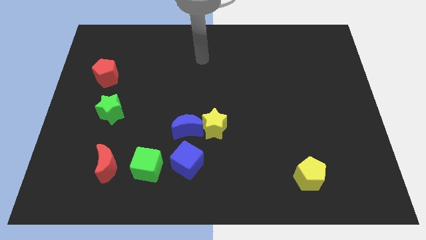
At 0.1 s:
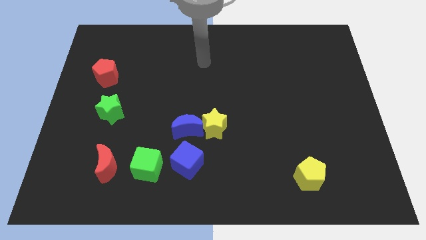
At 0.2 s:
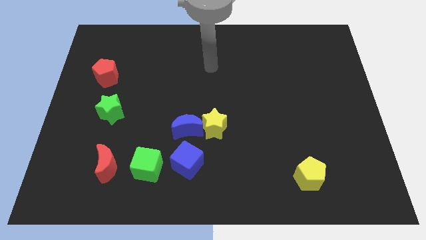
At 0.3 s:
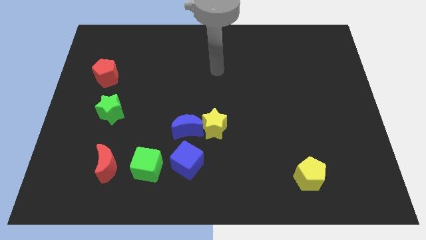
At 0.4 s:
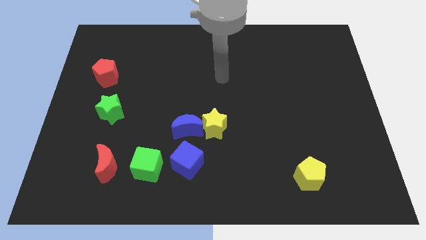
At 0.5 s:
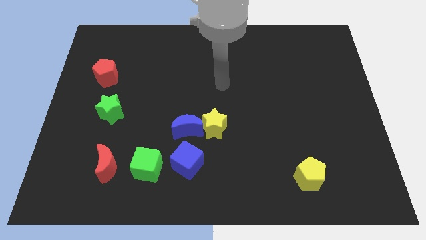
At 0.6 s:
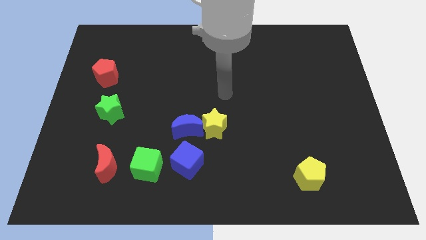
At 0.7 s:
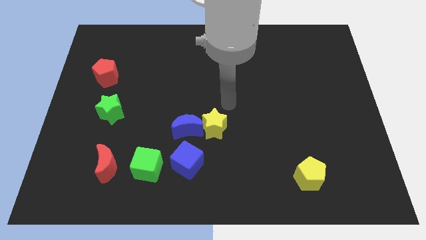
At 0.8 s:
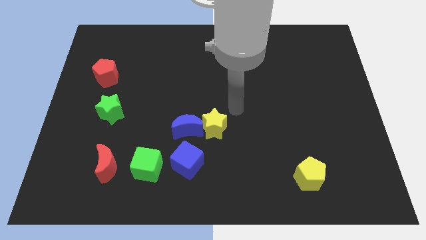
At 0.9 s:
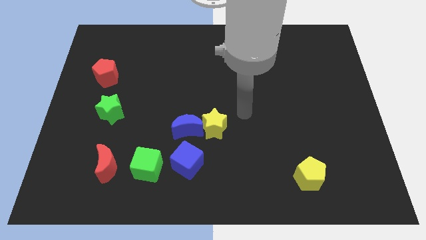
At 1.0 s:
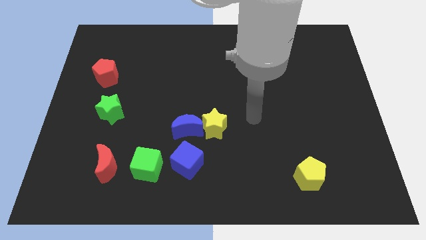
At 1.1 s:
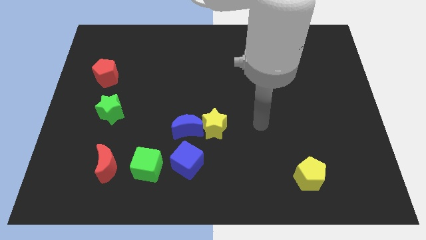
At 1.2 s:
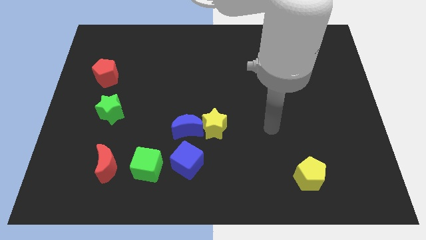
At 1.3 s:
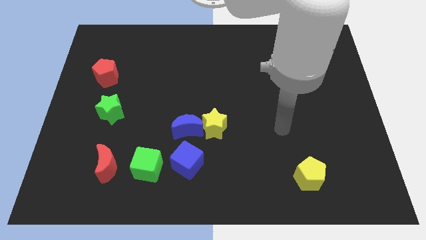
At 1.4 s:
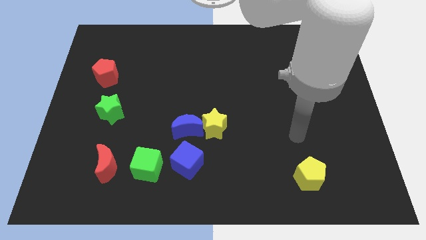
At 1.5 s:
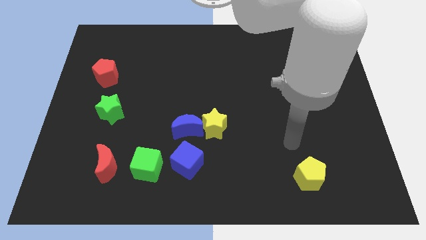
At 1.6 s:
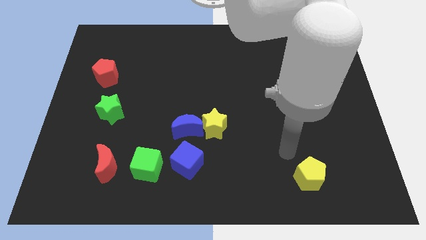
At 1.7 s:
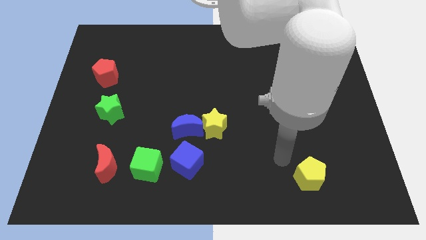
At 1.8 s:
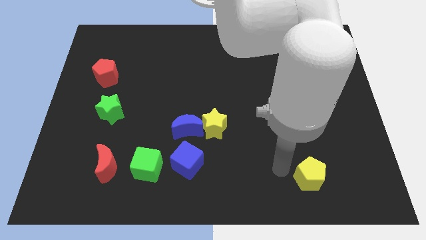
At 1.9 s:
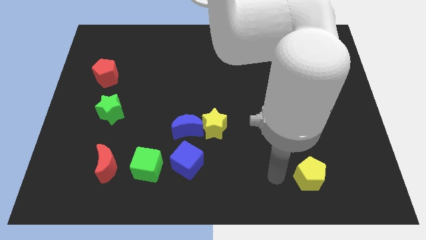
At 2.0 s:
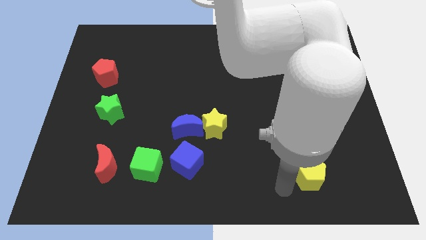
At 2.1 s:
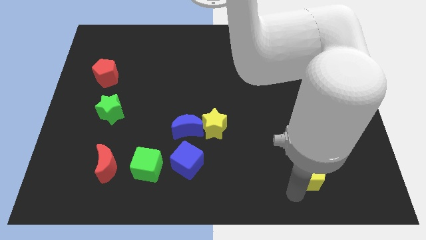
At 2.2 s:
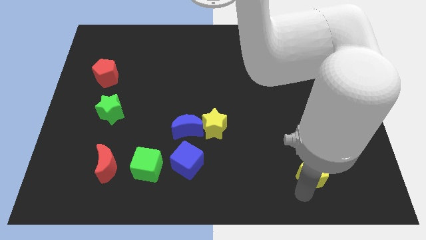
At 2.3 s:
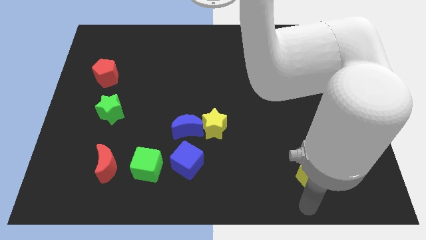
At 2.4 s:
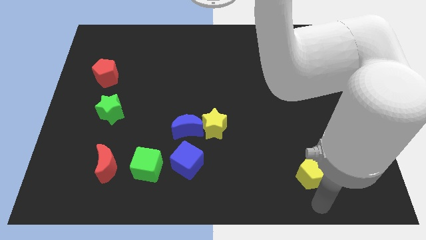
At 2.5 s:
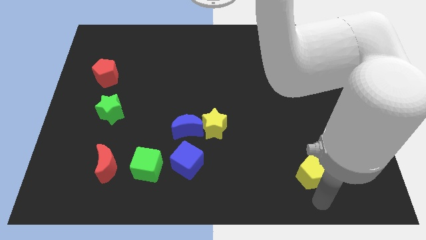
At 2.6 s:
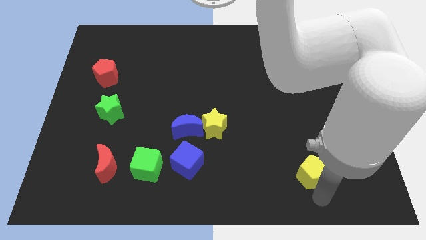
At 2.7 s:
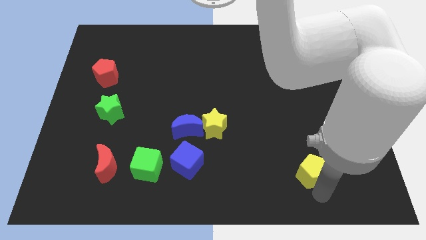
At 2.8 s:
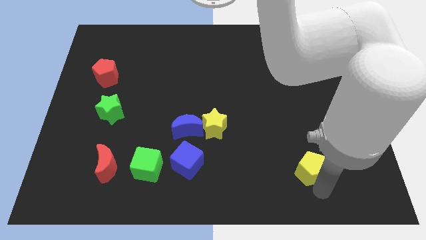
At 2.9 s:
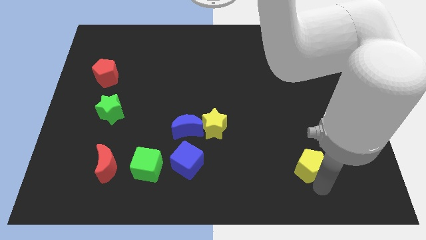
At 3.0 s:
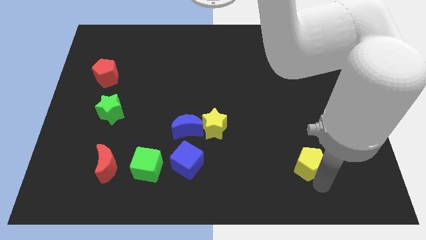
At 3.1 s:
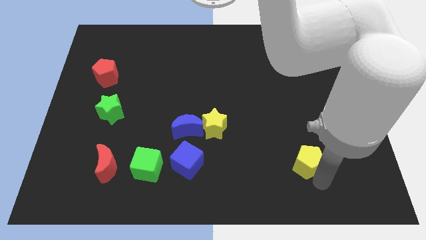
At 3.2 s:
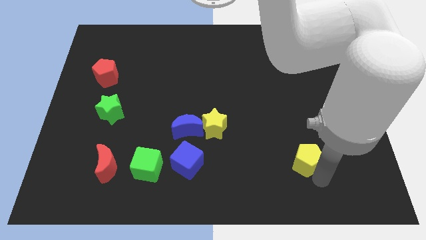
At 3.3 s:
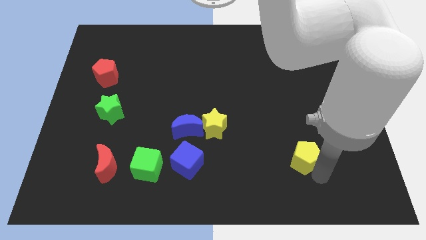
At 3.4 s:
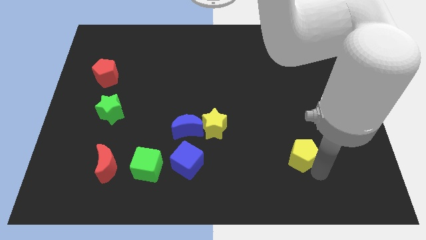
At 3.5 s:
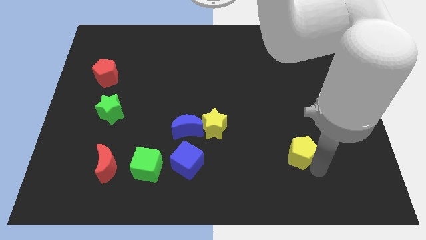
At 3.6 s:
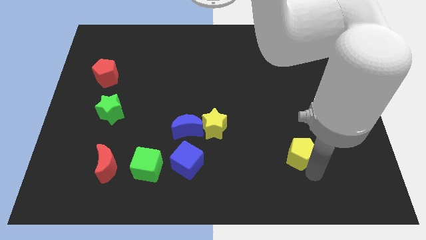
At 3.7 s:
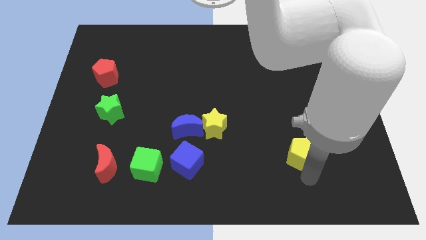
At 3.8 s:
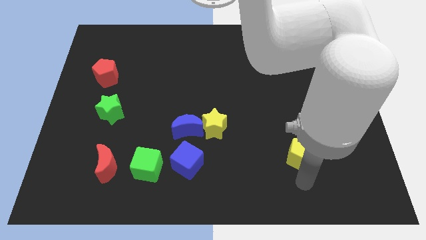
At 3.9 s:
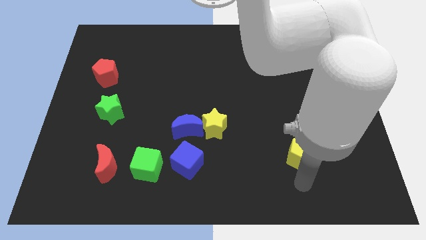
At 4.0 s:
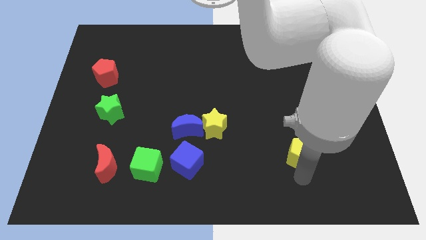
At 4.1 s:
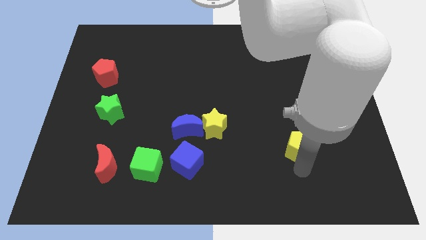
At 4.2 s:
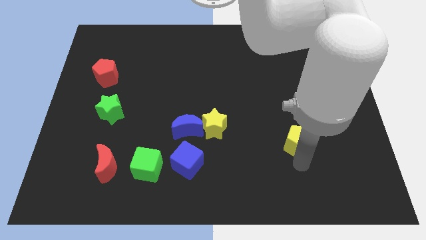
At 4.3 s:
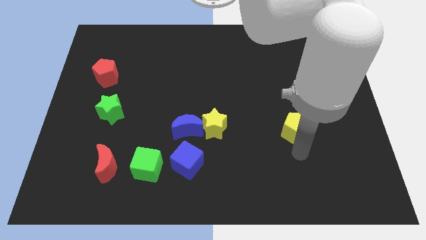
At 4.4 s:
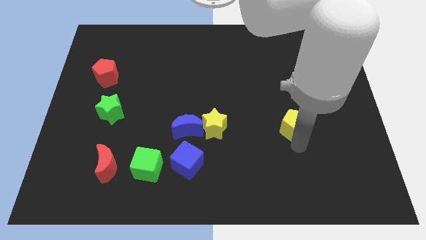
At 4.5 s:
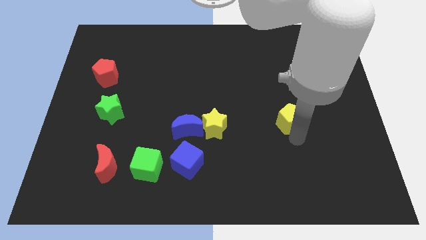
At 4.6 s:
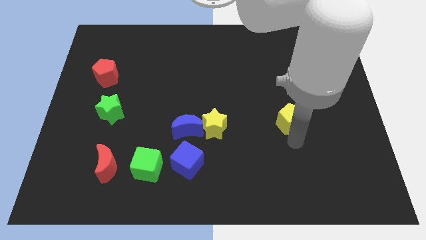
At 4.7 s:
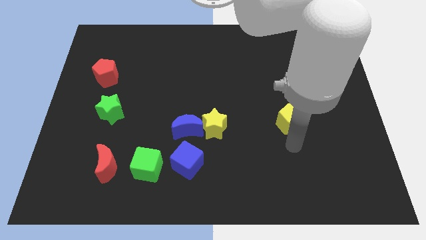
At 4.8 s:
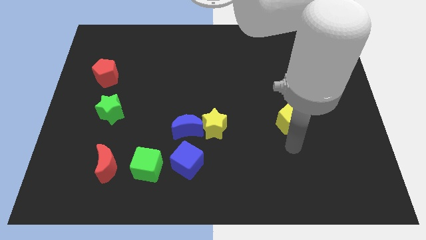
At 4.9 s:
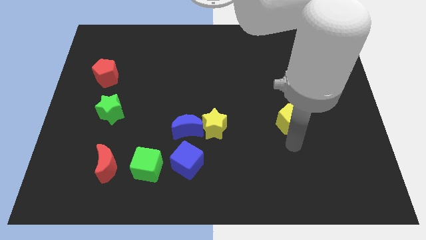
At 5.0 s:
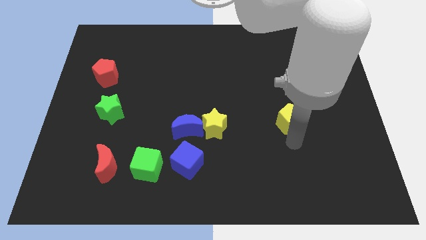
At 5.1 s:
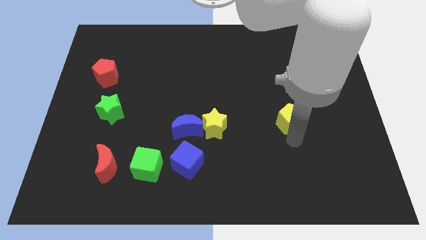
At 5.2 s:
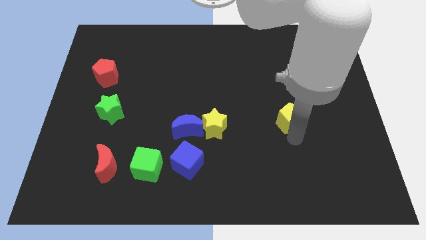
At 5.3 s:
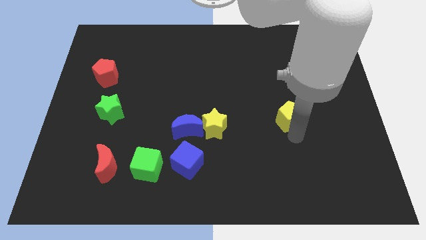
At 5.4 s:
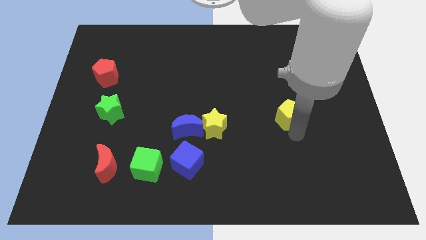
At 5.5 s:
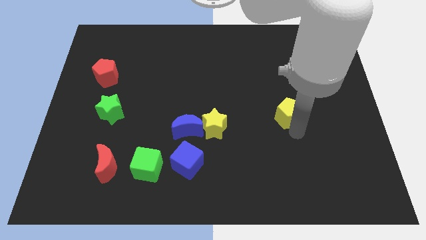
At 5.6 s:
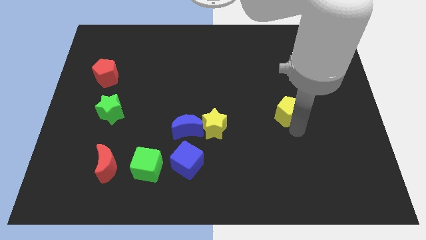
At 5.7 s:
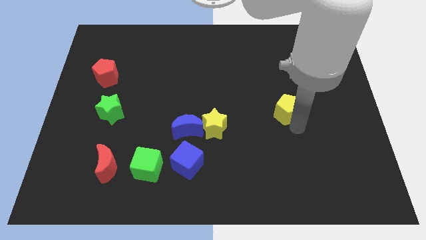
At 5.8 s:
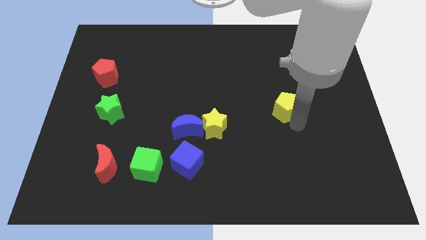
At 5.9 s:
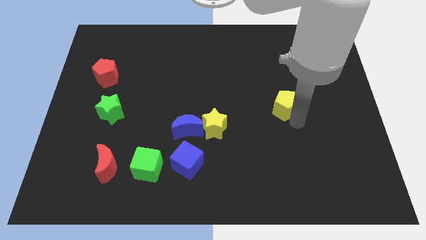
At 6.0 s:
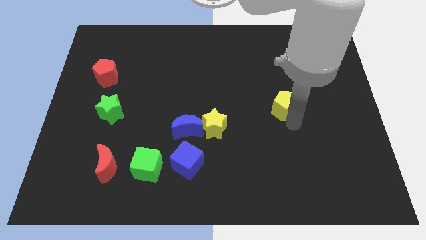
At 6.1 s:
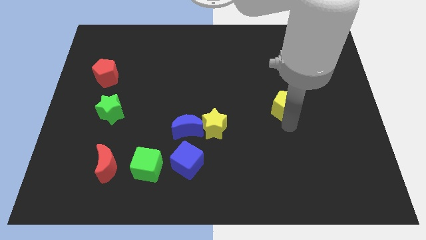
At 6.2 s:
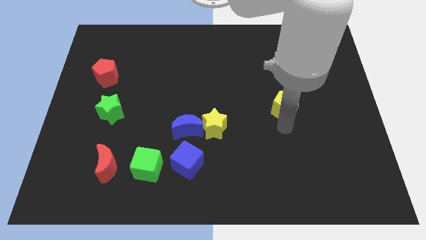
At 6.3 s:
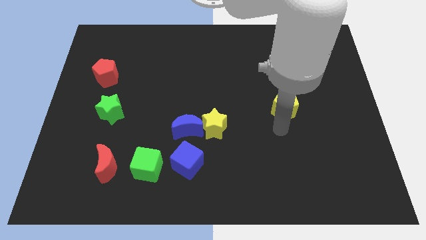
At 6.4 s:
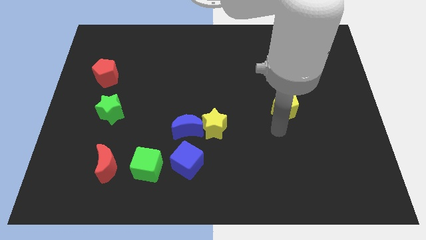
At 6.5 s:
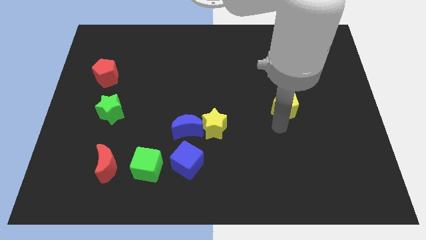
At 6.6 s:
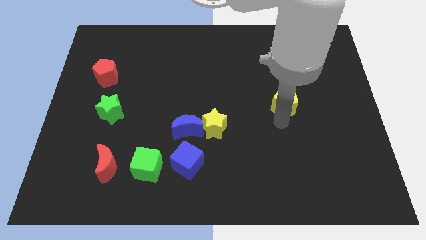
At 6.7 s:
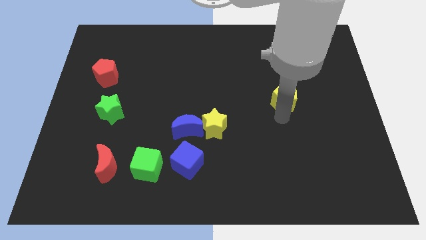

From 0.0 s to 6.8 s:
push the yellow pentagon up

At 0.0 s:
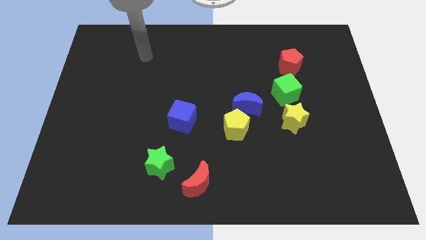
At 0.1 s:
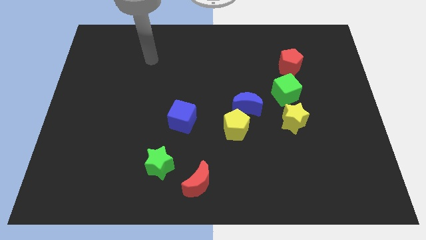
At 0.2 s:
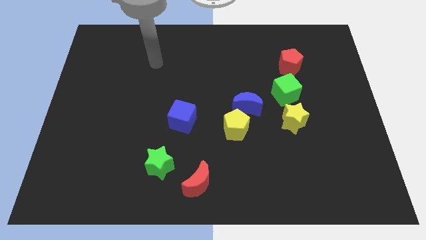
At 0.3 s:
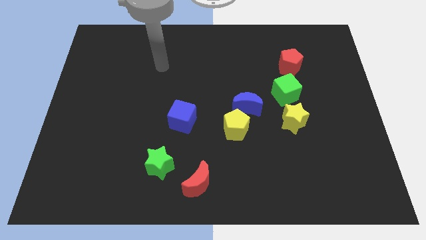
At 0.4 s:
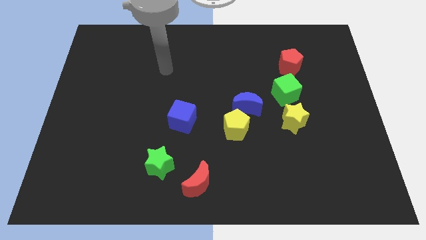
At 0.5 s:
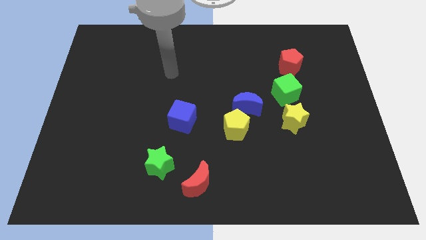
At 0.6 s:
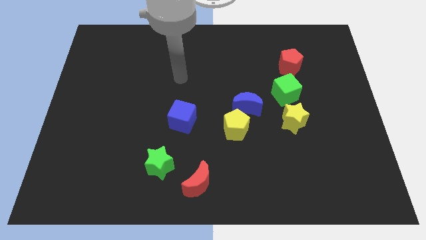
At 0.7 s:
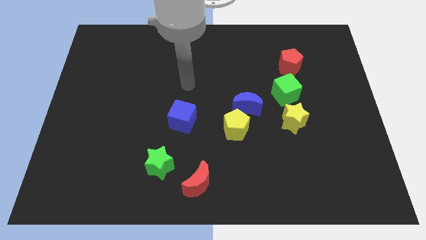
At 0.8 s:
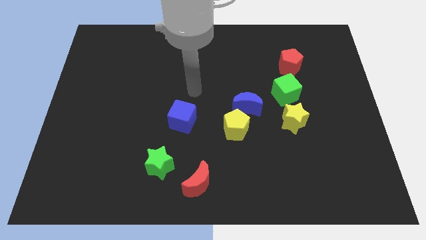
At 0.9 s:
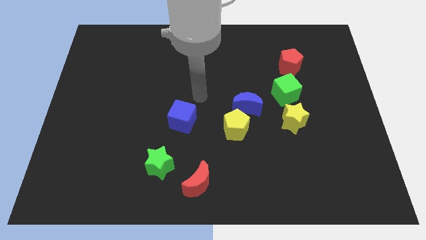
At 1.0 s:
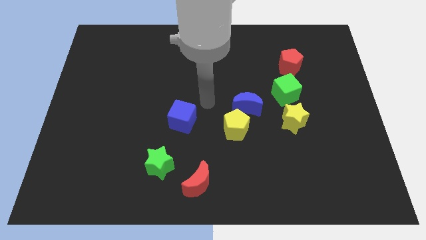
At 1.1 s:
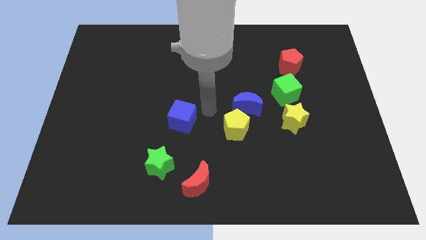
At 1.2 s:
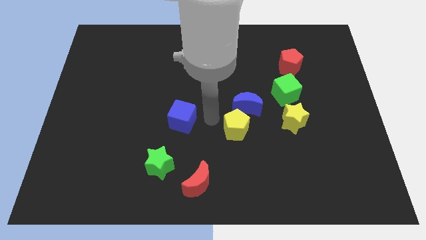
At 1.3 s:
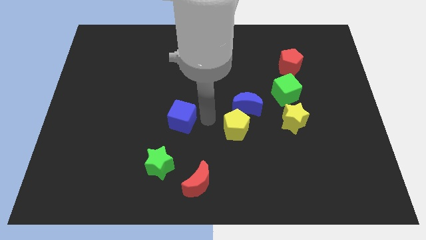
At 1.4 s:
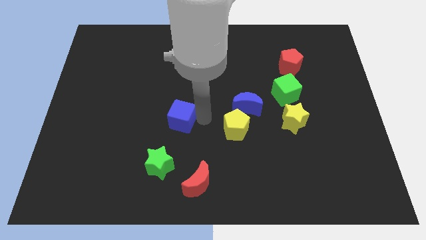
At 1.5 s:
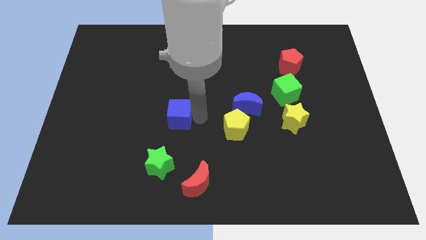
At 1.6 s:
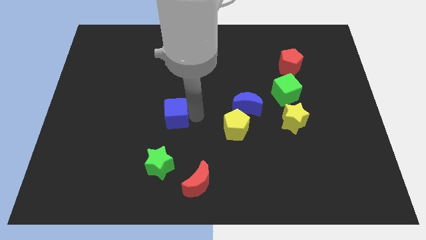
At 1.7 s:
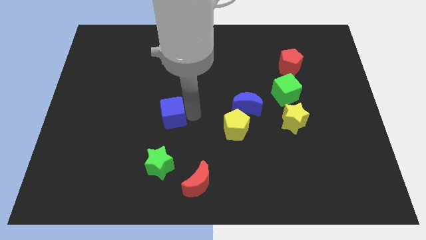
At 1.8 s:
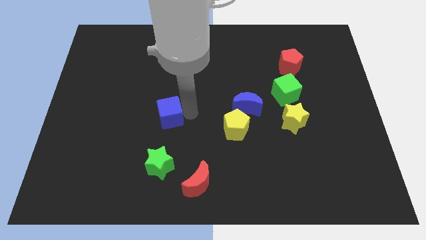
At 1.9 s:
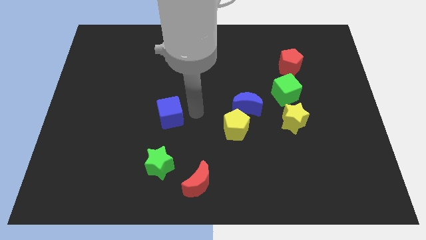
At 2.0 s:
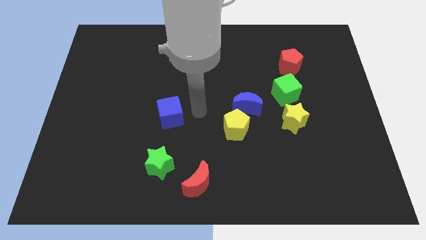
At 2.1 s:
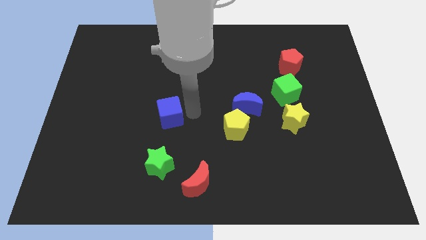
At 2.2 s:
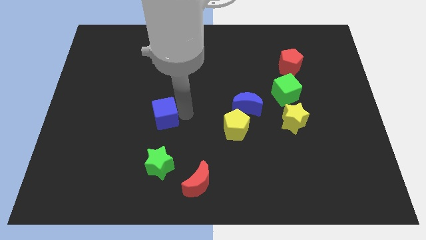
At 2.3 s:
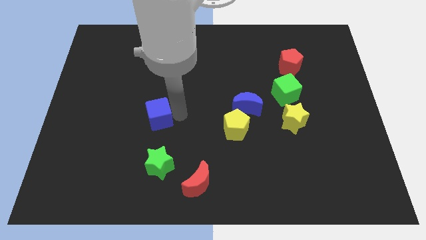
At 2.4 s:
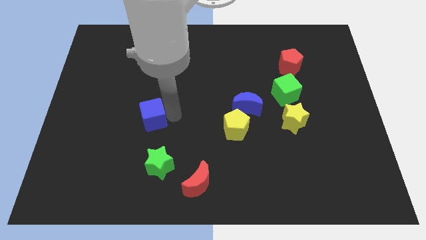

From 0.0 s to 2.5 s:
slide the blue cube slightly to the left
